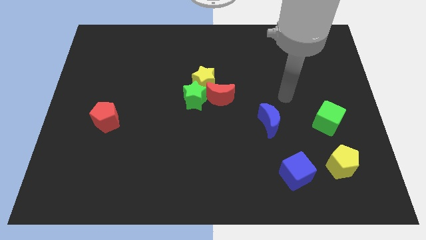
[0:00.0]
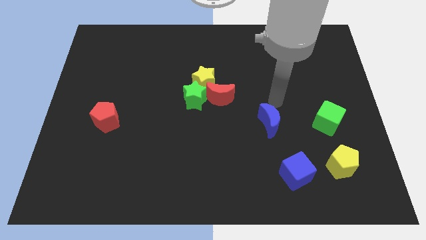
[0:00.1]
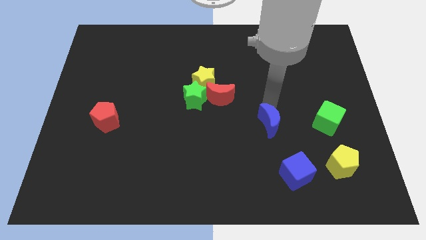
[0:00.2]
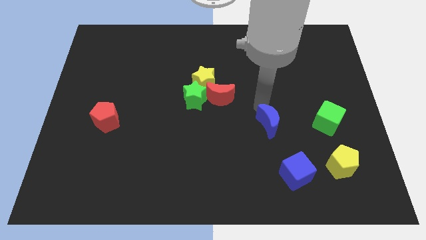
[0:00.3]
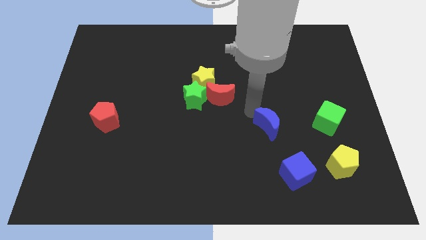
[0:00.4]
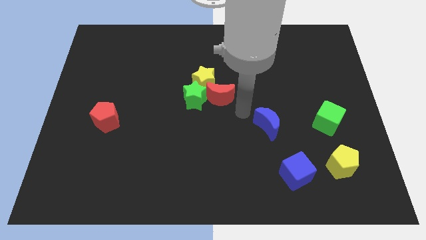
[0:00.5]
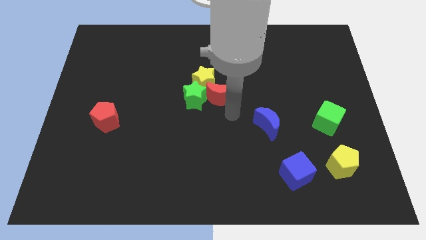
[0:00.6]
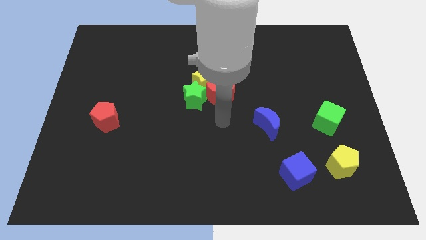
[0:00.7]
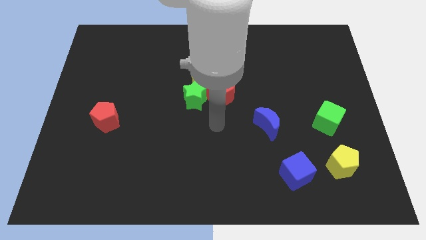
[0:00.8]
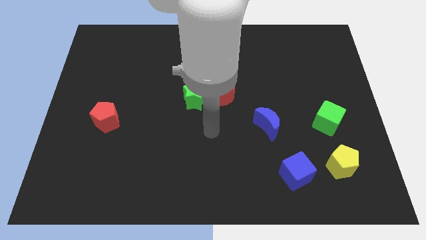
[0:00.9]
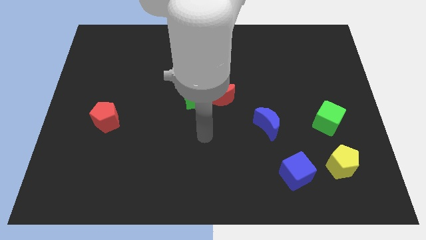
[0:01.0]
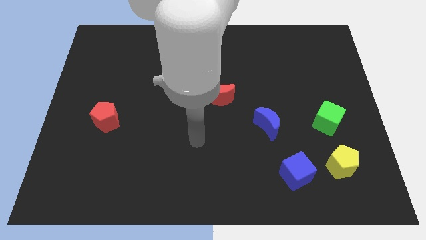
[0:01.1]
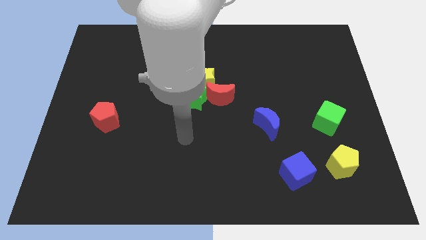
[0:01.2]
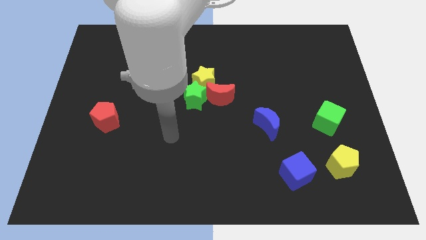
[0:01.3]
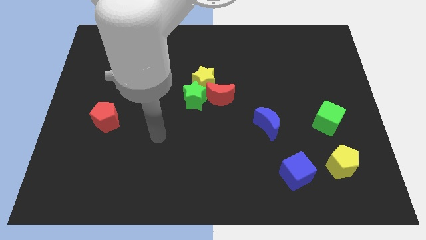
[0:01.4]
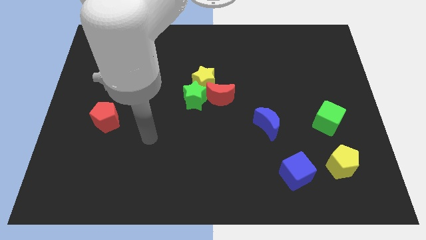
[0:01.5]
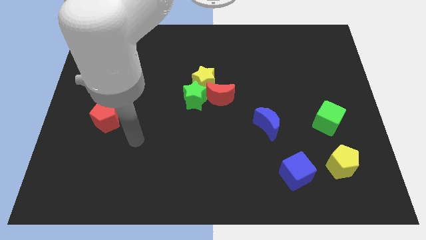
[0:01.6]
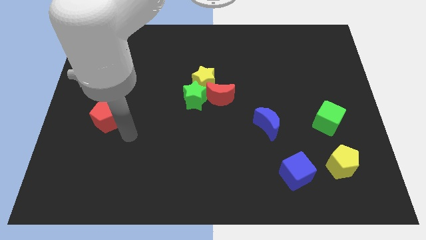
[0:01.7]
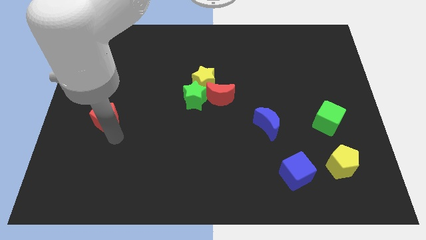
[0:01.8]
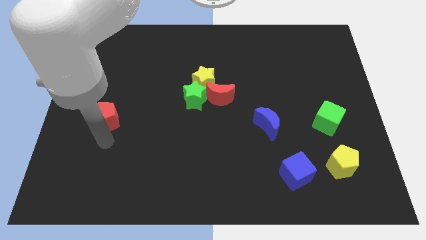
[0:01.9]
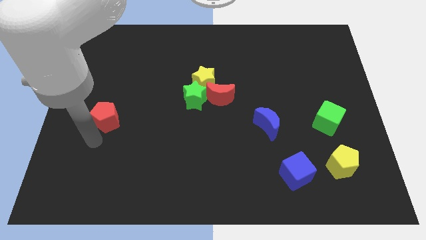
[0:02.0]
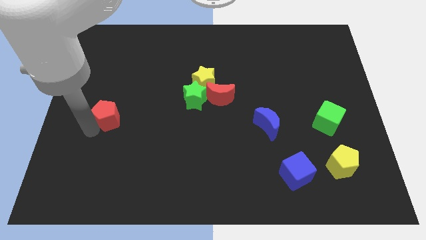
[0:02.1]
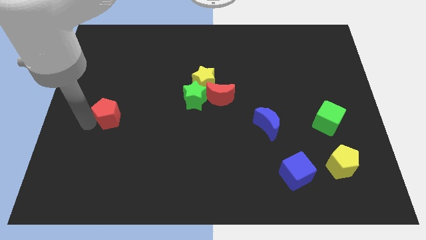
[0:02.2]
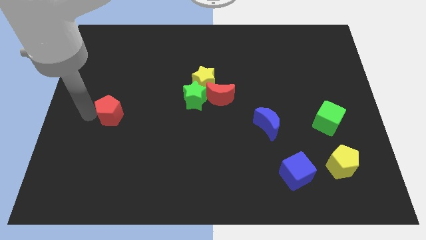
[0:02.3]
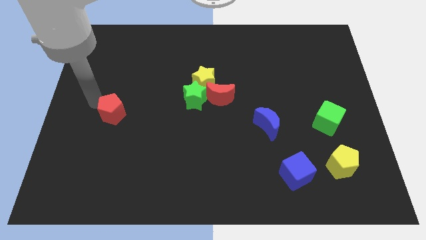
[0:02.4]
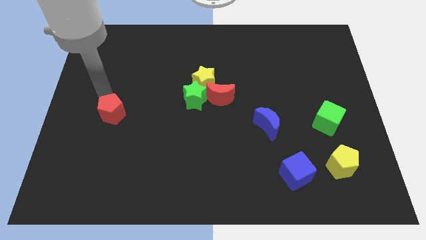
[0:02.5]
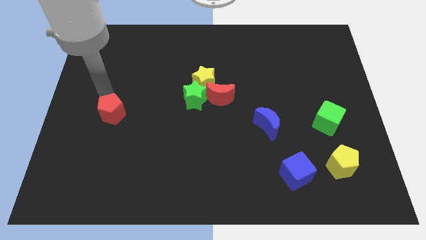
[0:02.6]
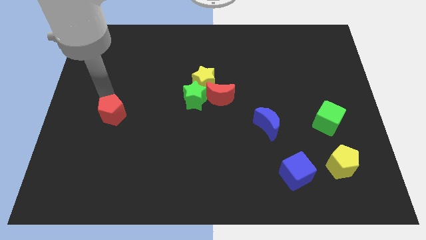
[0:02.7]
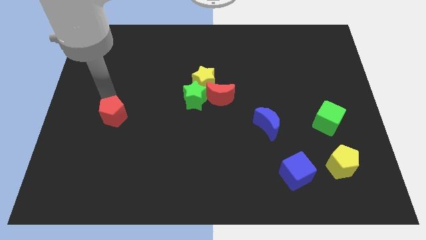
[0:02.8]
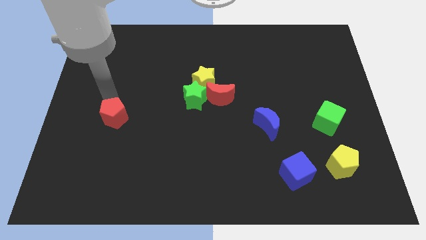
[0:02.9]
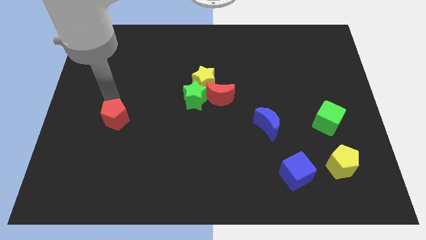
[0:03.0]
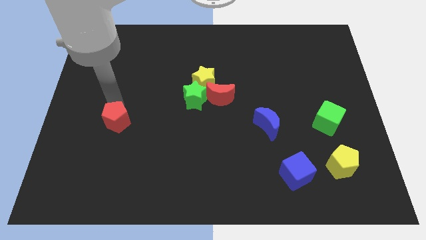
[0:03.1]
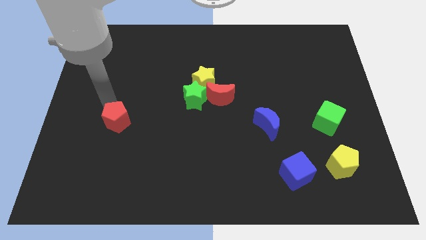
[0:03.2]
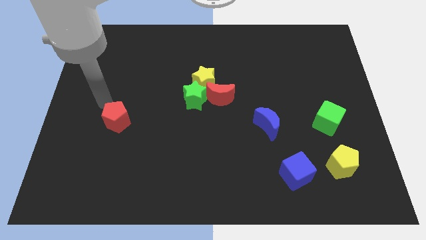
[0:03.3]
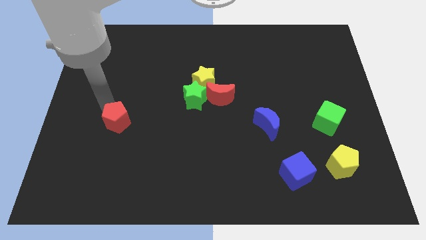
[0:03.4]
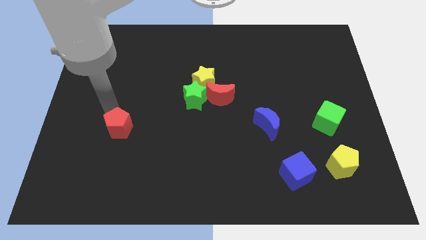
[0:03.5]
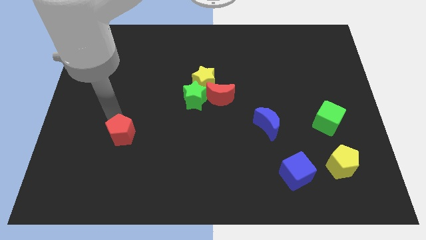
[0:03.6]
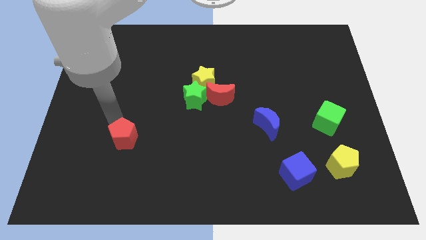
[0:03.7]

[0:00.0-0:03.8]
slightly push the red pentagon down and to the right diagonally

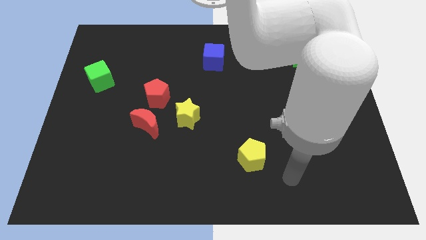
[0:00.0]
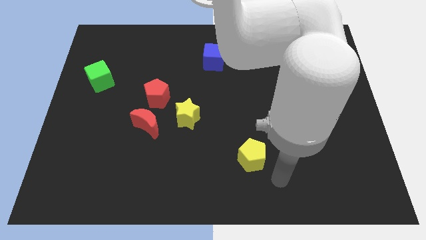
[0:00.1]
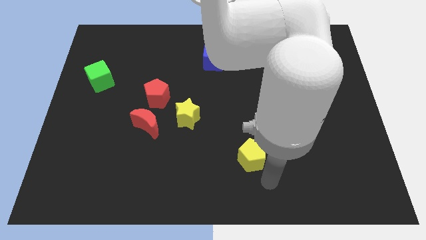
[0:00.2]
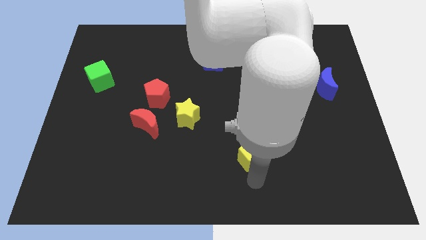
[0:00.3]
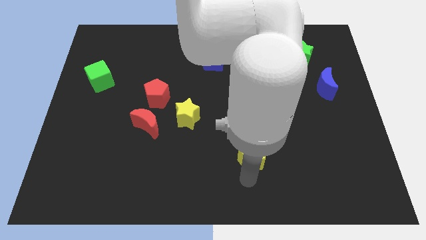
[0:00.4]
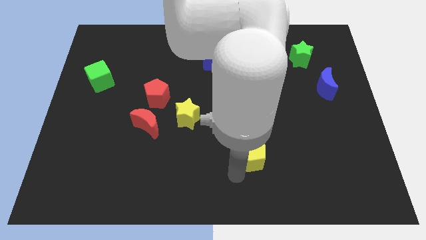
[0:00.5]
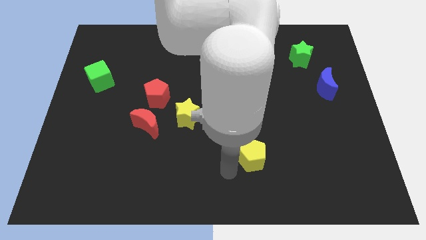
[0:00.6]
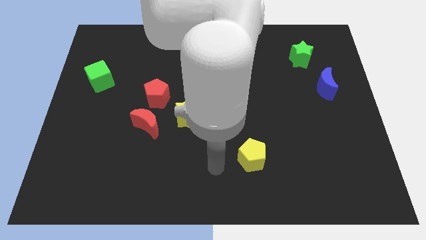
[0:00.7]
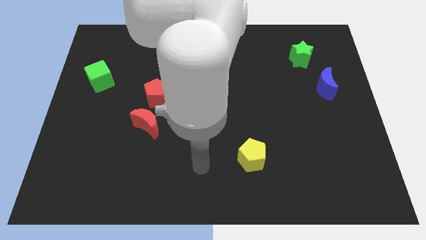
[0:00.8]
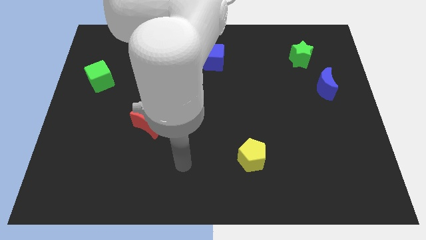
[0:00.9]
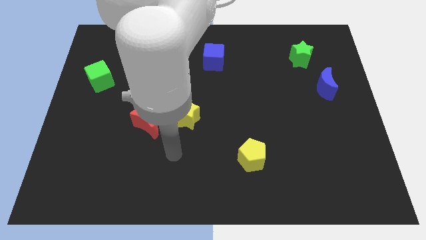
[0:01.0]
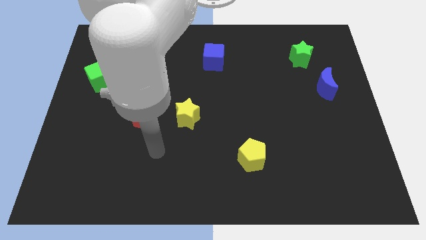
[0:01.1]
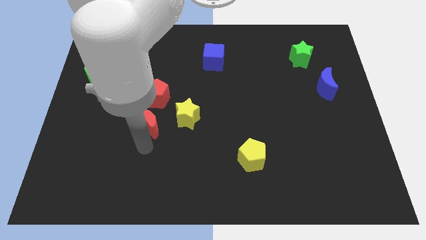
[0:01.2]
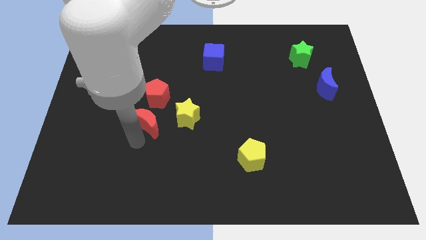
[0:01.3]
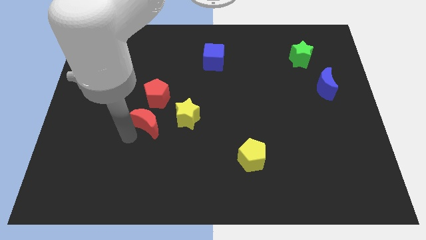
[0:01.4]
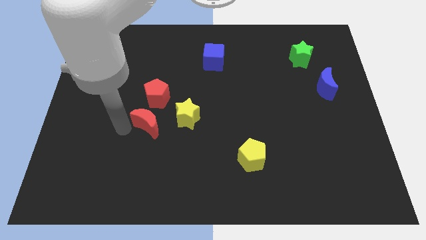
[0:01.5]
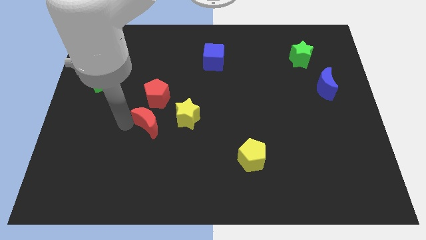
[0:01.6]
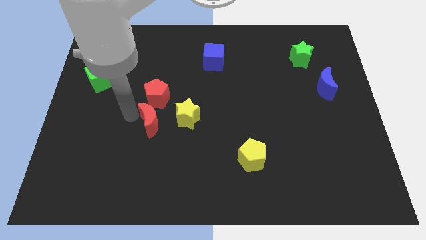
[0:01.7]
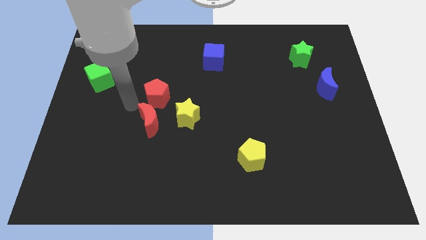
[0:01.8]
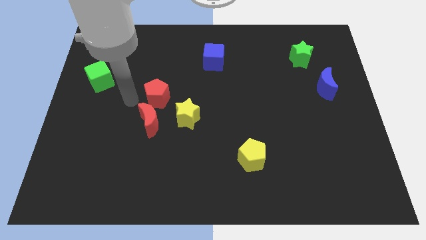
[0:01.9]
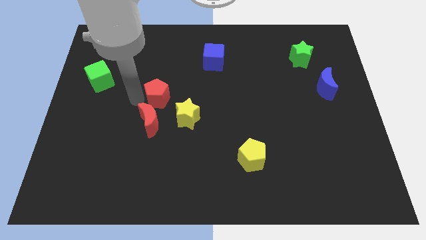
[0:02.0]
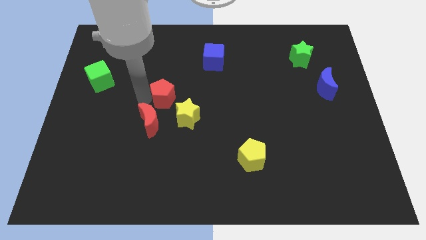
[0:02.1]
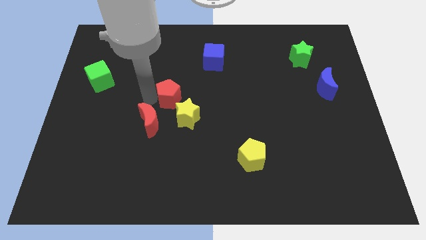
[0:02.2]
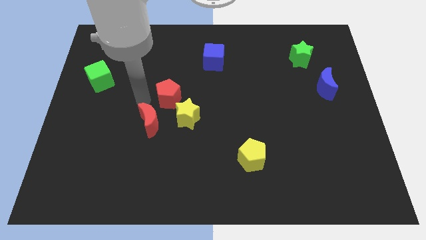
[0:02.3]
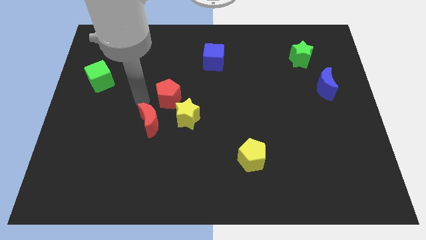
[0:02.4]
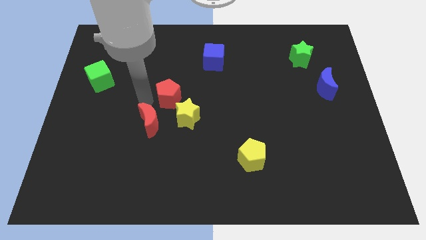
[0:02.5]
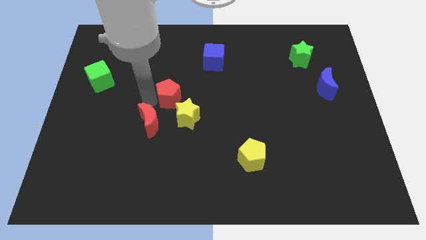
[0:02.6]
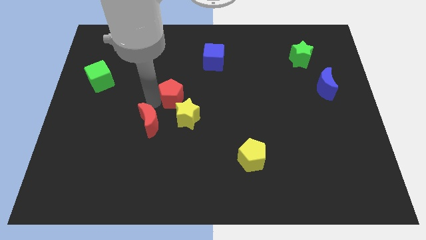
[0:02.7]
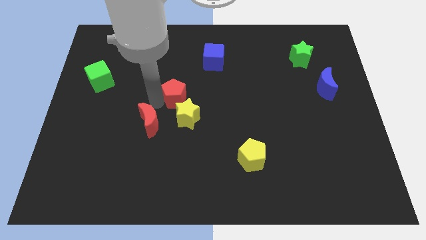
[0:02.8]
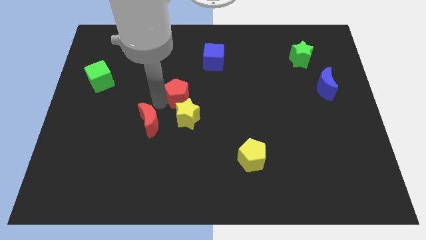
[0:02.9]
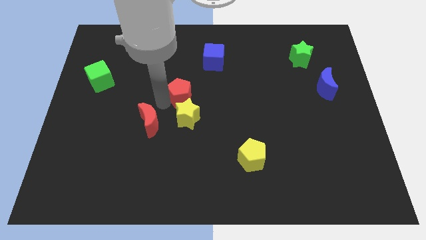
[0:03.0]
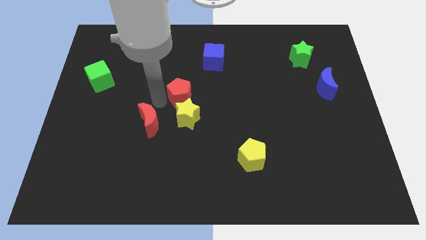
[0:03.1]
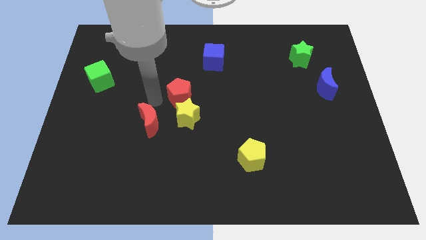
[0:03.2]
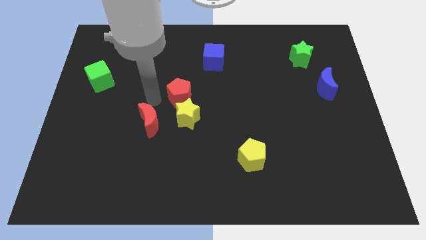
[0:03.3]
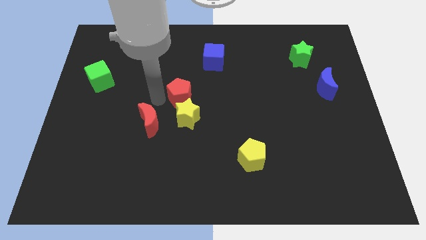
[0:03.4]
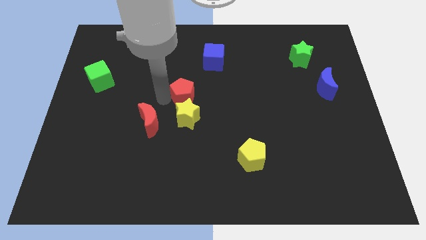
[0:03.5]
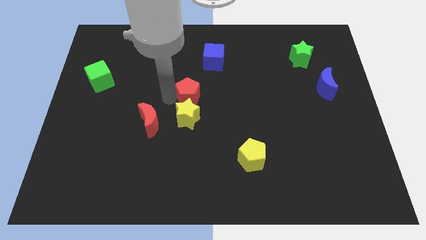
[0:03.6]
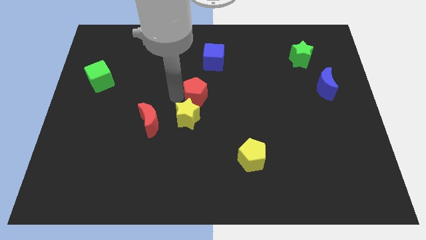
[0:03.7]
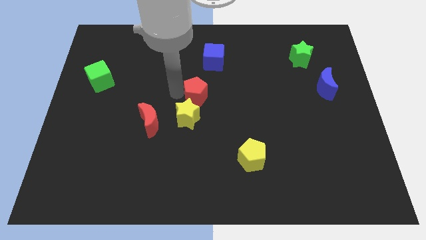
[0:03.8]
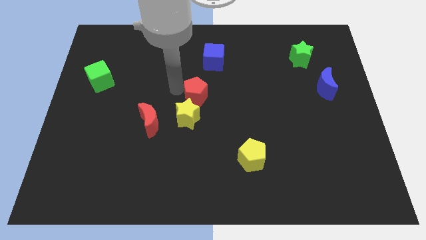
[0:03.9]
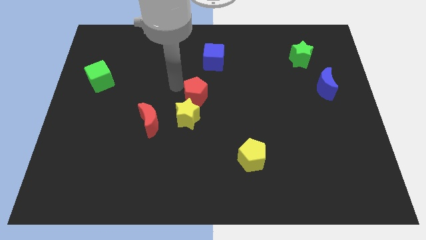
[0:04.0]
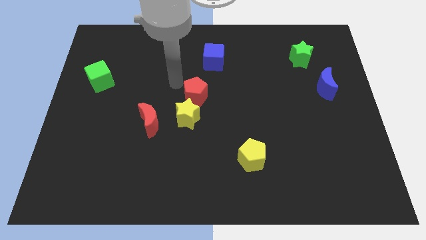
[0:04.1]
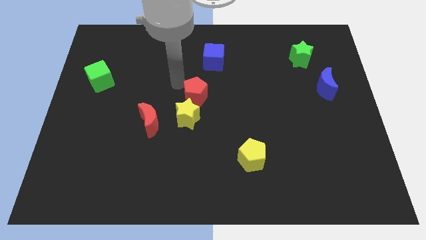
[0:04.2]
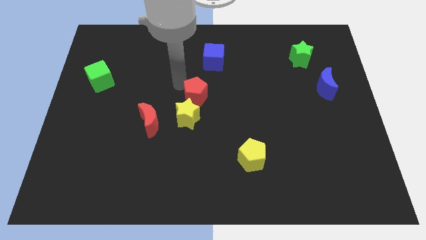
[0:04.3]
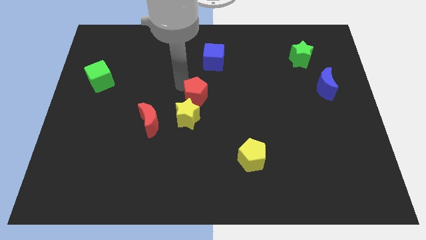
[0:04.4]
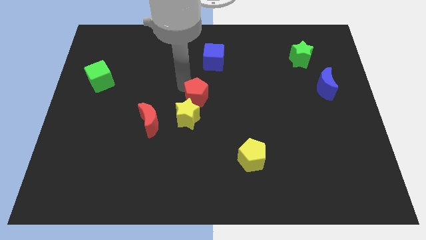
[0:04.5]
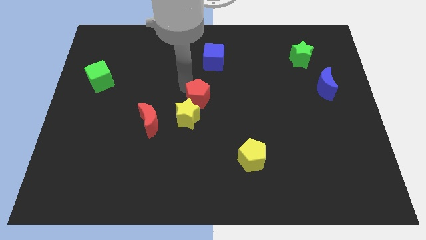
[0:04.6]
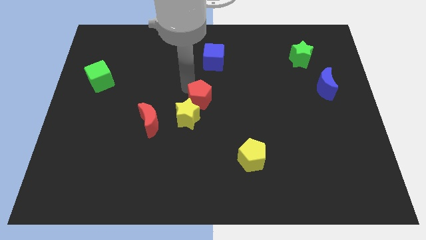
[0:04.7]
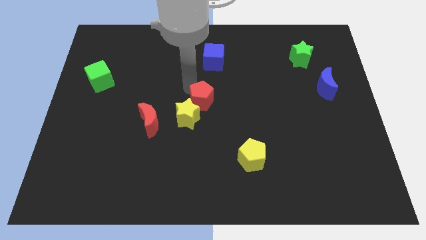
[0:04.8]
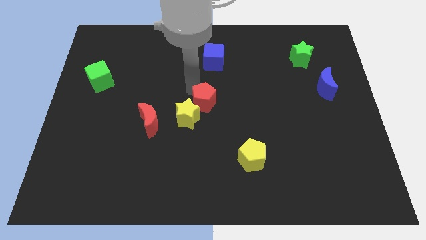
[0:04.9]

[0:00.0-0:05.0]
slide the red pentagon down and right diagonally somewhat
